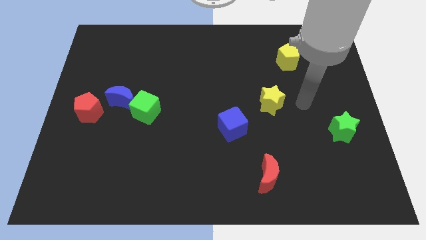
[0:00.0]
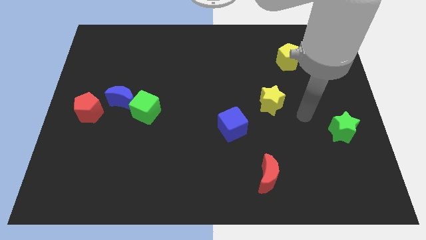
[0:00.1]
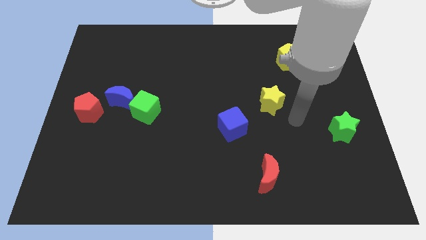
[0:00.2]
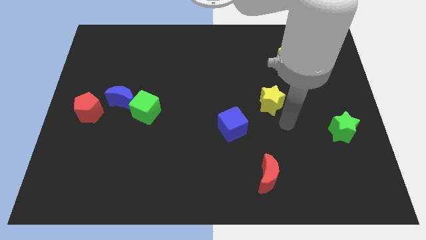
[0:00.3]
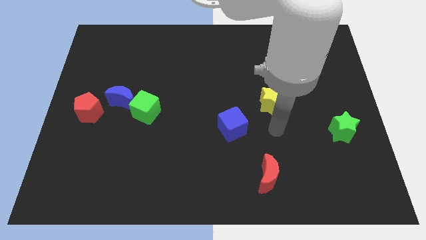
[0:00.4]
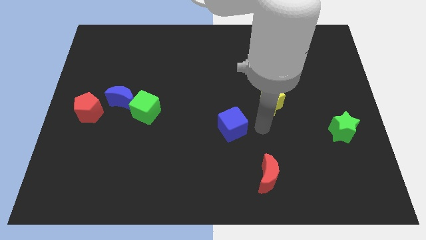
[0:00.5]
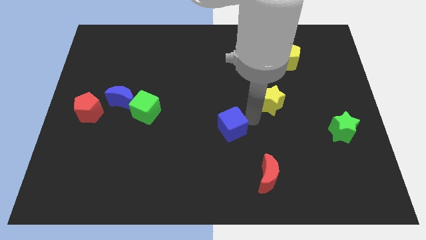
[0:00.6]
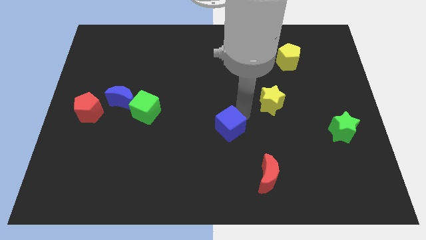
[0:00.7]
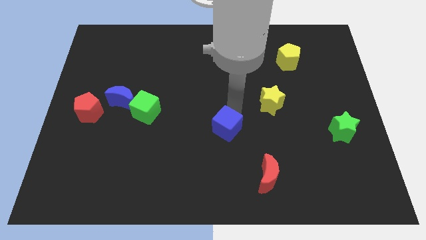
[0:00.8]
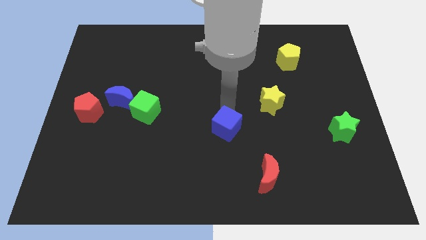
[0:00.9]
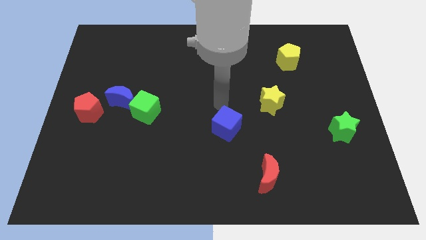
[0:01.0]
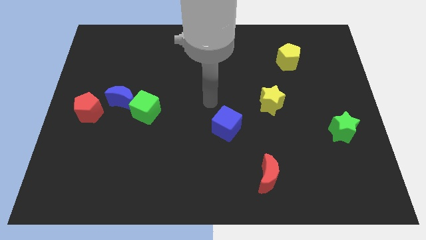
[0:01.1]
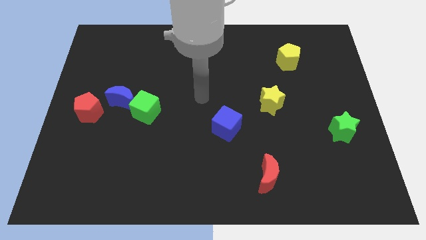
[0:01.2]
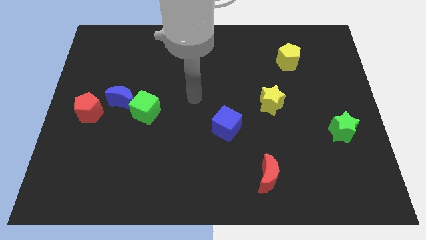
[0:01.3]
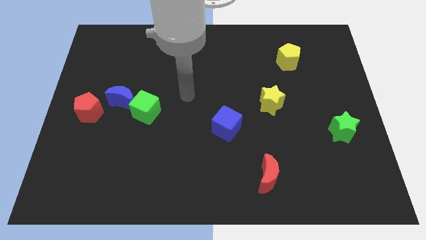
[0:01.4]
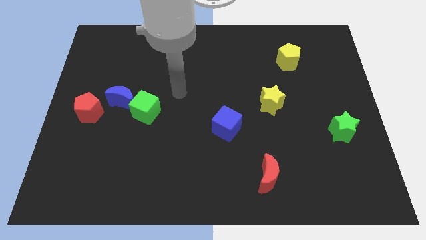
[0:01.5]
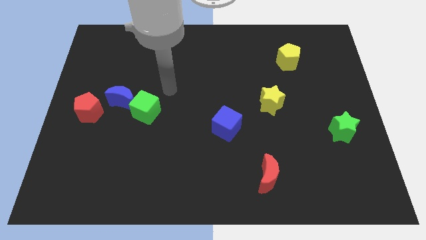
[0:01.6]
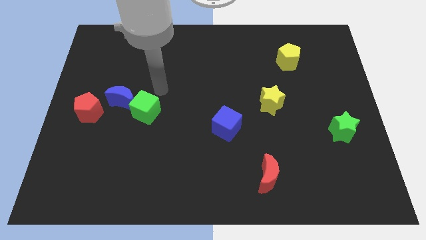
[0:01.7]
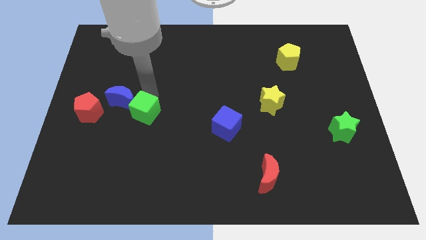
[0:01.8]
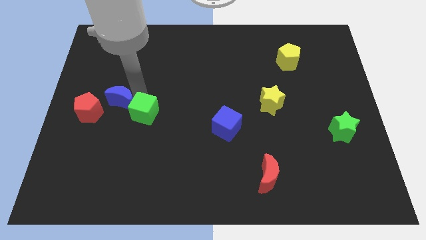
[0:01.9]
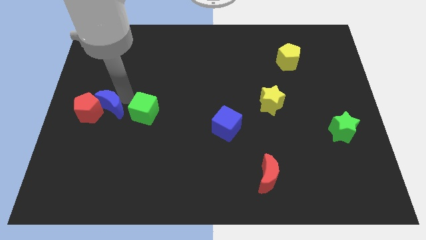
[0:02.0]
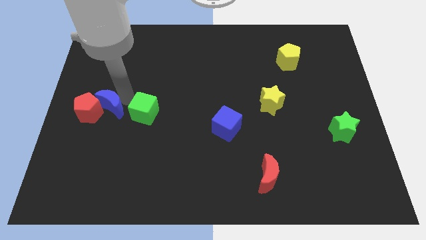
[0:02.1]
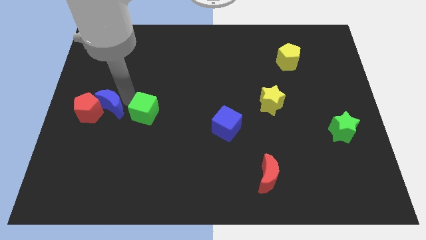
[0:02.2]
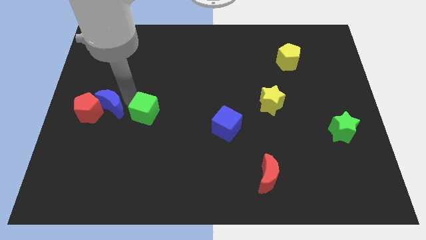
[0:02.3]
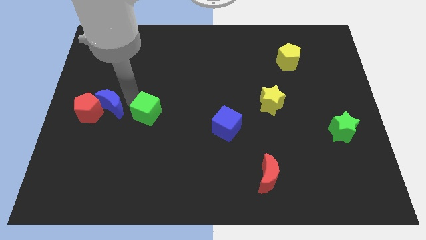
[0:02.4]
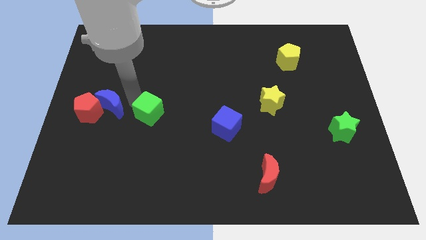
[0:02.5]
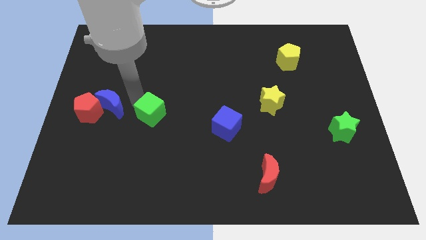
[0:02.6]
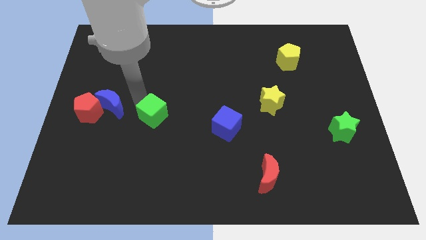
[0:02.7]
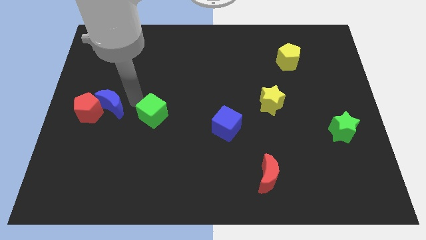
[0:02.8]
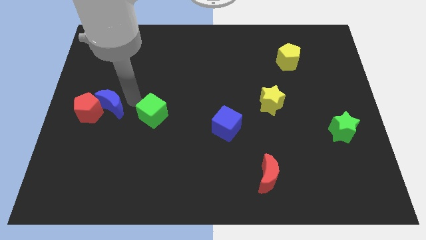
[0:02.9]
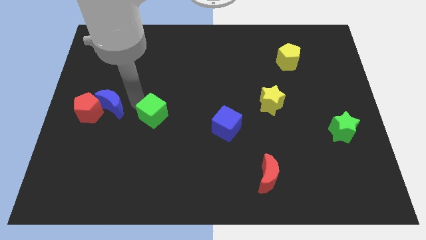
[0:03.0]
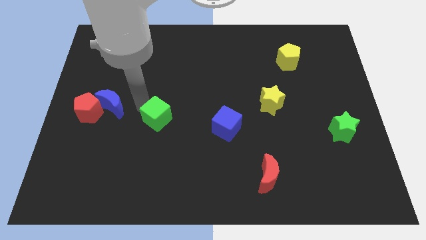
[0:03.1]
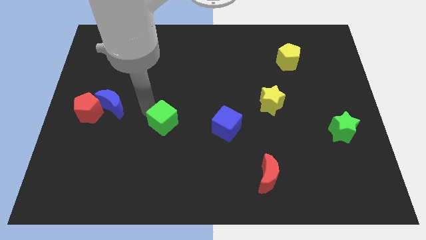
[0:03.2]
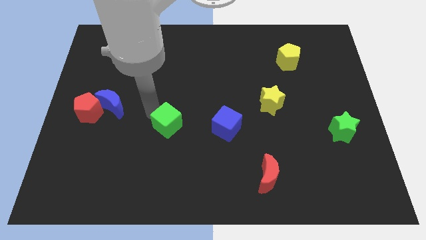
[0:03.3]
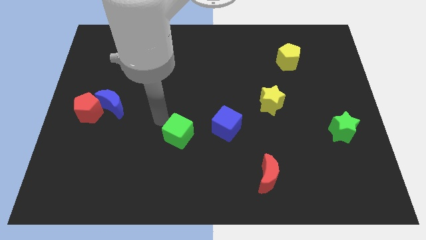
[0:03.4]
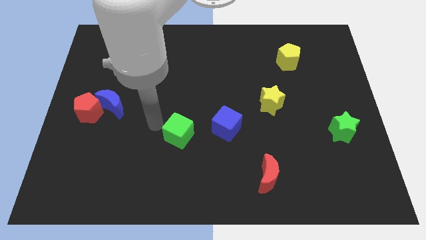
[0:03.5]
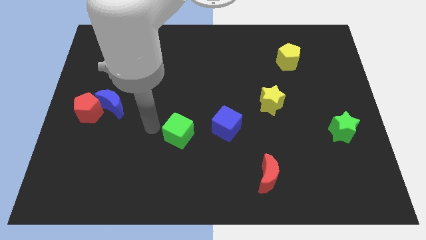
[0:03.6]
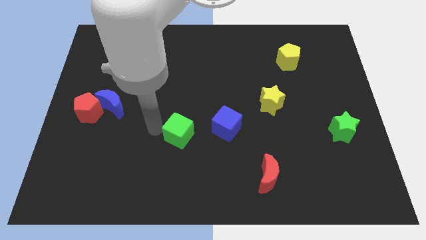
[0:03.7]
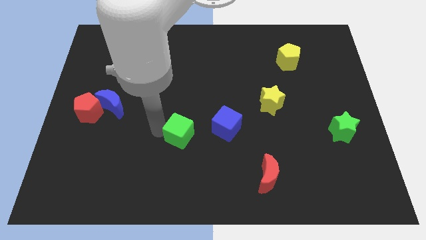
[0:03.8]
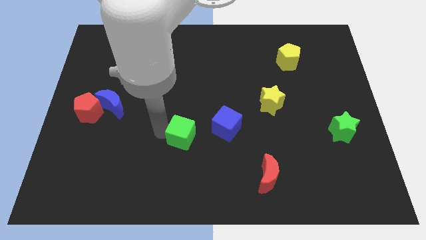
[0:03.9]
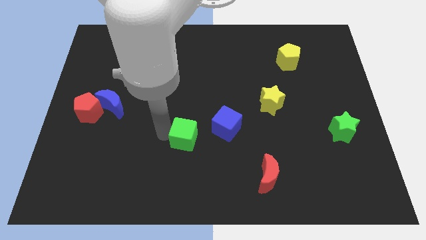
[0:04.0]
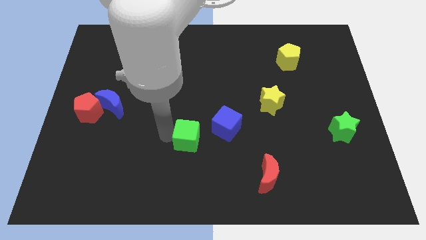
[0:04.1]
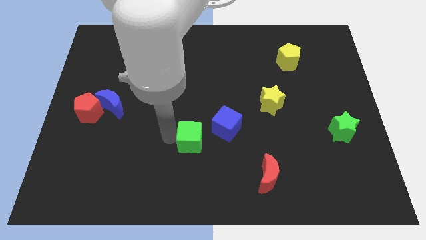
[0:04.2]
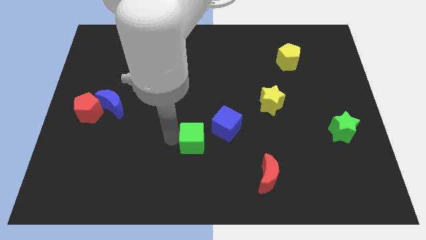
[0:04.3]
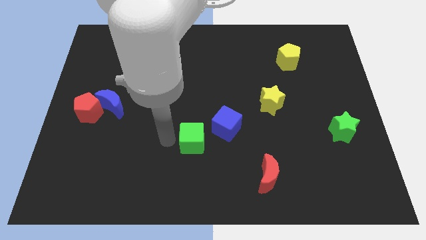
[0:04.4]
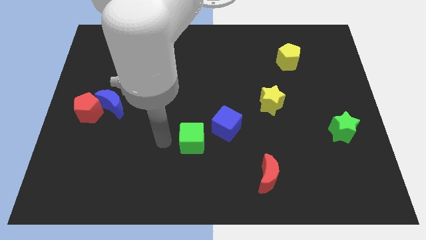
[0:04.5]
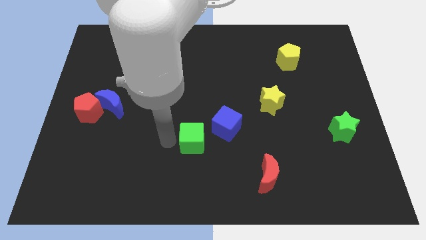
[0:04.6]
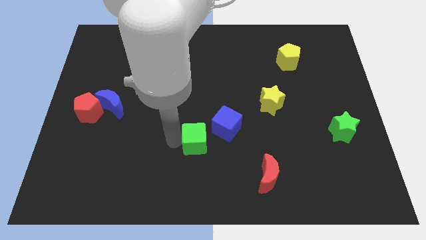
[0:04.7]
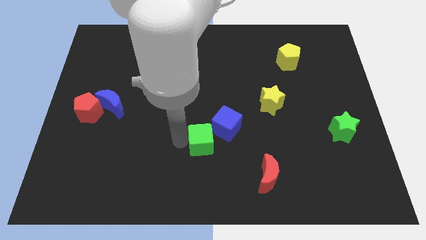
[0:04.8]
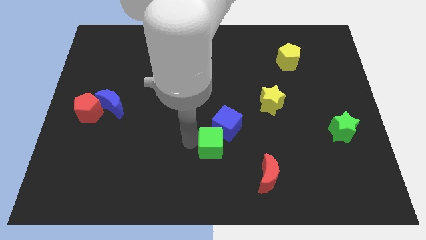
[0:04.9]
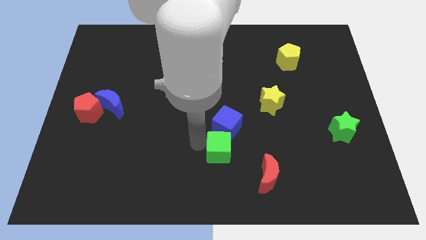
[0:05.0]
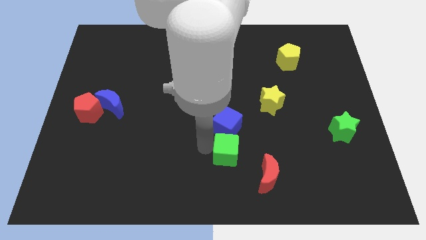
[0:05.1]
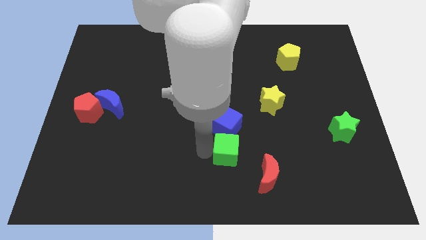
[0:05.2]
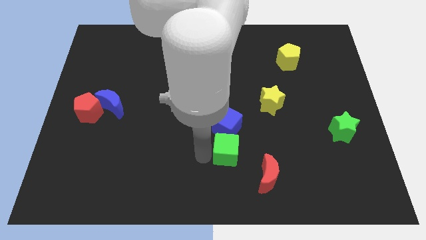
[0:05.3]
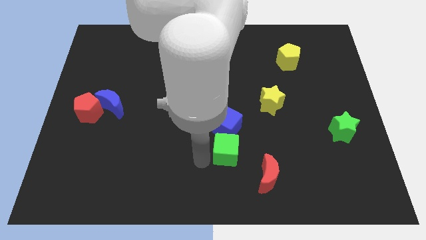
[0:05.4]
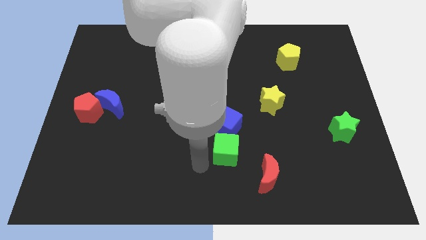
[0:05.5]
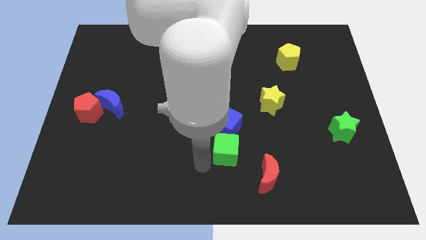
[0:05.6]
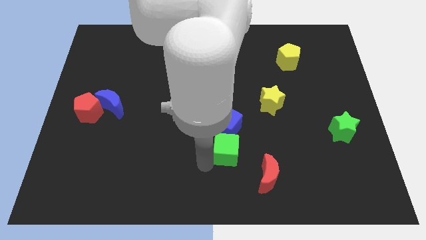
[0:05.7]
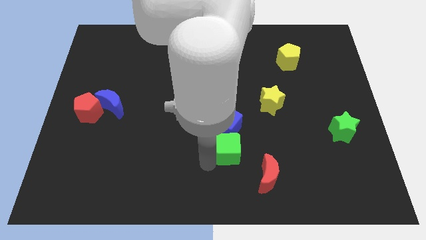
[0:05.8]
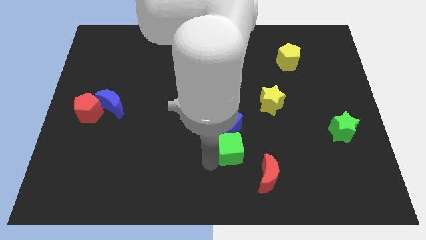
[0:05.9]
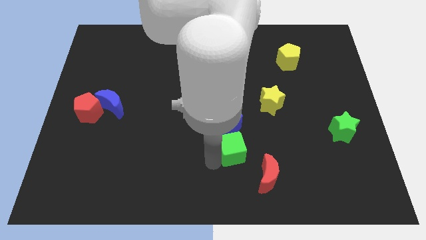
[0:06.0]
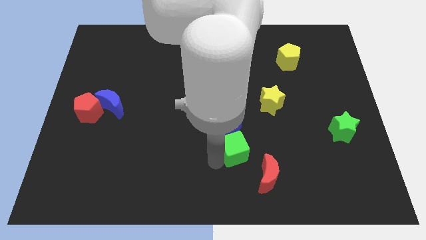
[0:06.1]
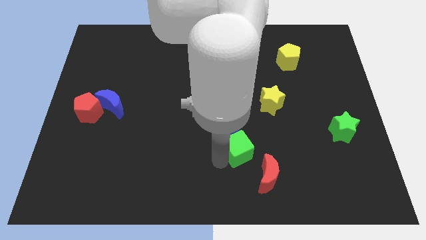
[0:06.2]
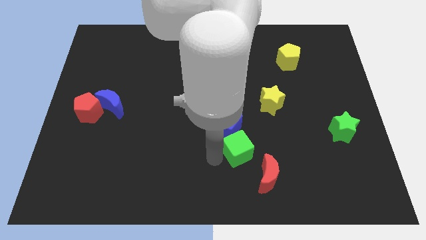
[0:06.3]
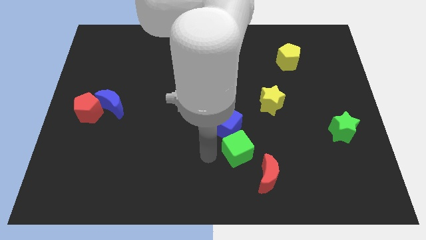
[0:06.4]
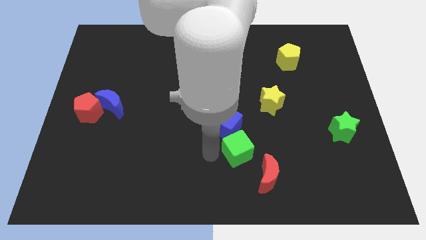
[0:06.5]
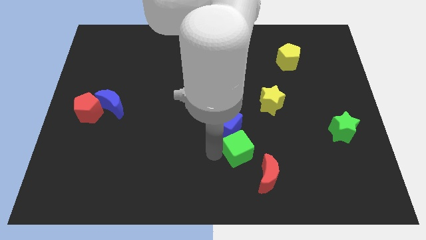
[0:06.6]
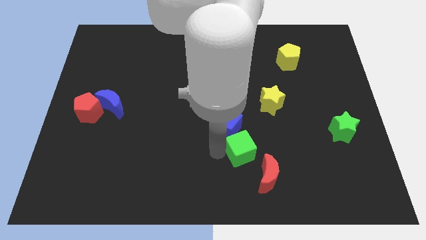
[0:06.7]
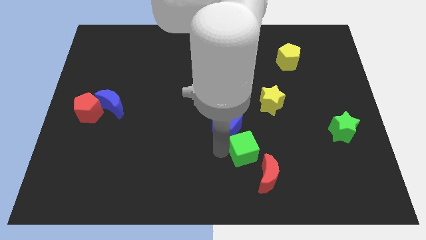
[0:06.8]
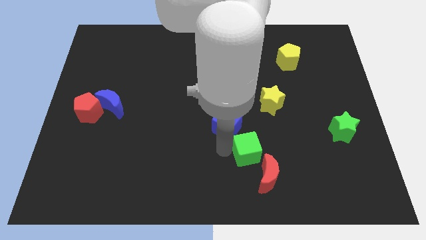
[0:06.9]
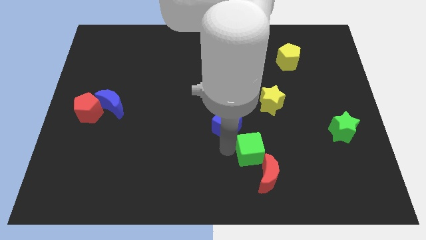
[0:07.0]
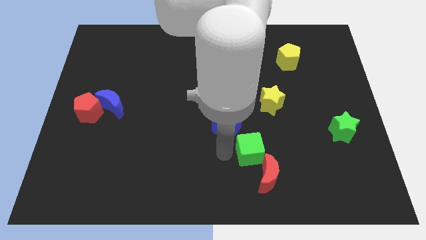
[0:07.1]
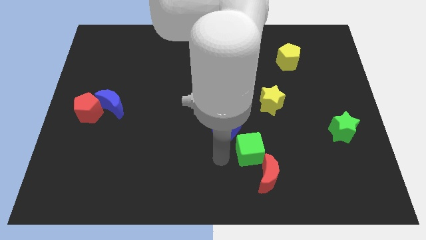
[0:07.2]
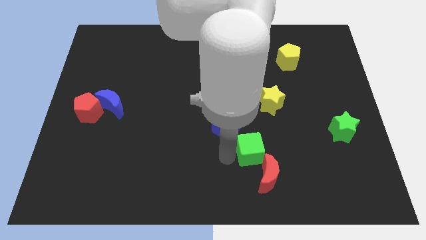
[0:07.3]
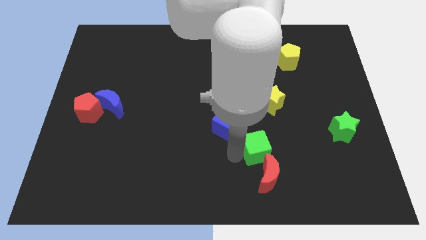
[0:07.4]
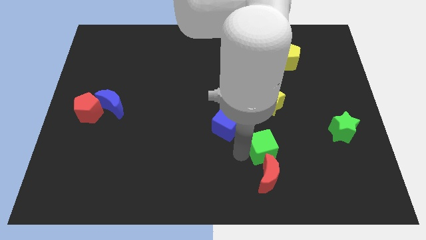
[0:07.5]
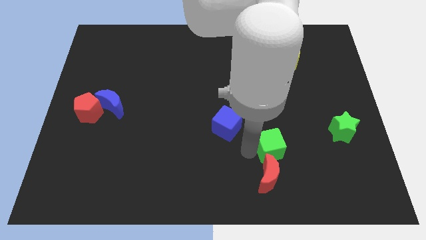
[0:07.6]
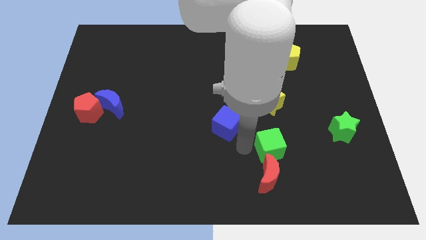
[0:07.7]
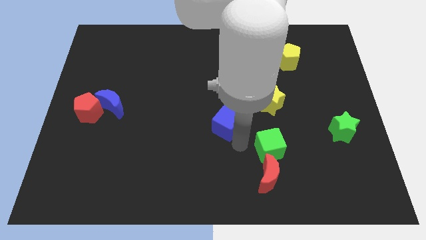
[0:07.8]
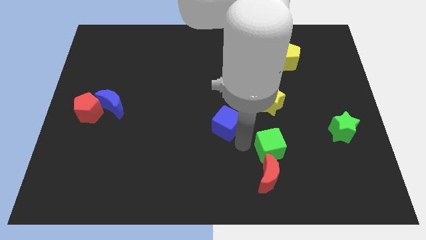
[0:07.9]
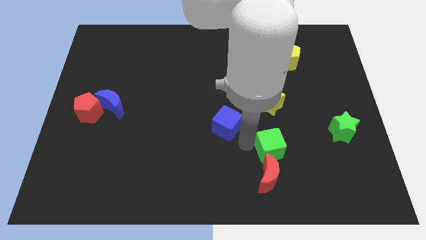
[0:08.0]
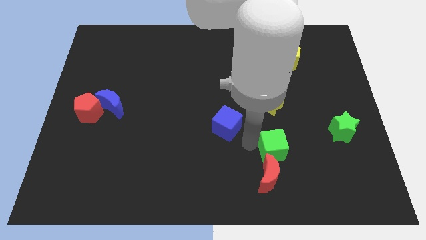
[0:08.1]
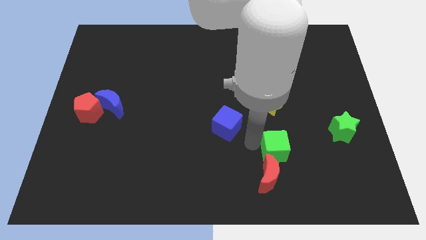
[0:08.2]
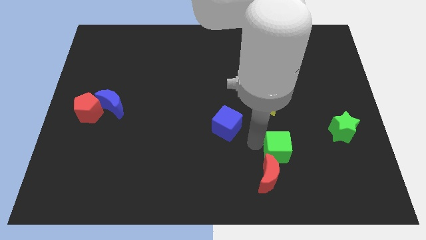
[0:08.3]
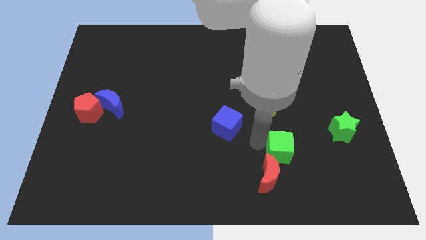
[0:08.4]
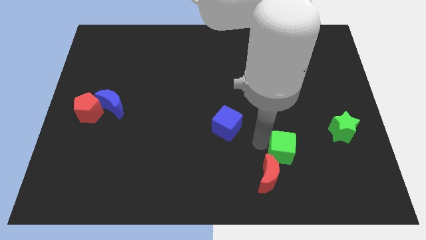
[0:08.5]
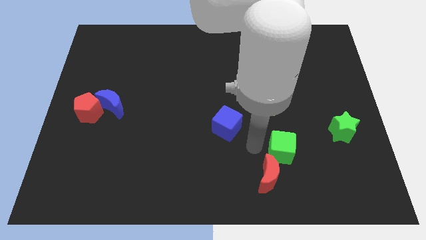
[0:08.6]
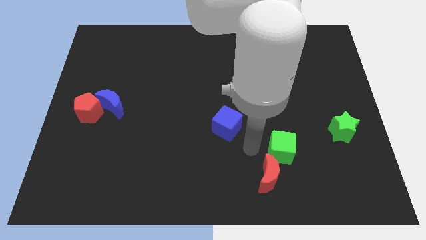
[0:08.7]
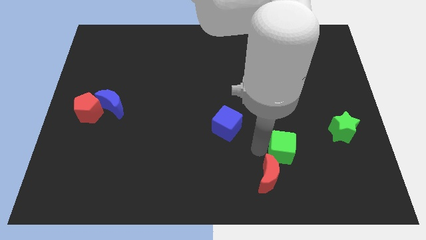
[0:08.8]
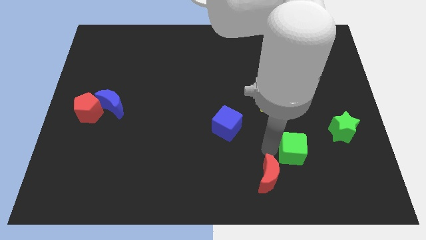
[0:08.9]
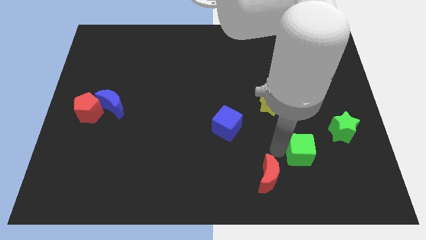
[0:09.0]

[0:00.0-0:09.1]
push the green cube diagonally down and to the left of the green star
